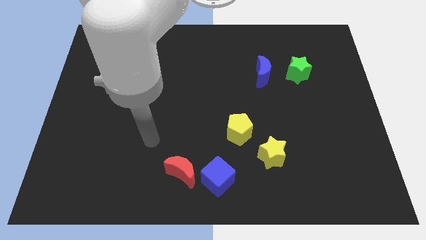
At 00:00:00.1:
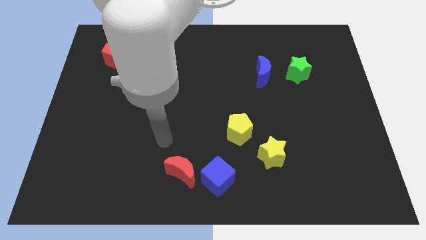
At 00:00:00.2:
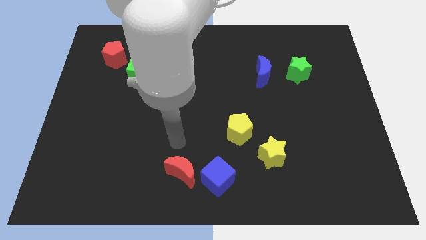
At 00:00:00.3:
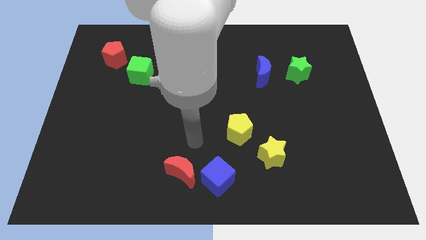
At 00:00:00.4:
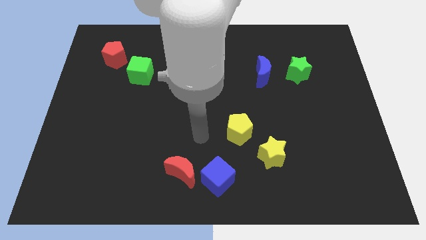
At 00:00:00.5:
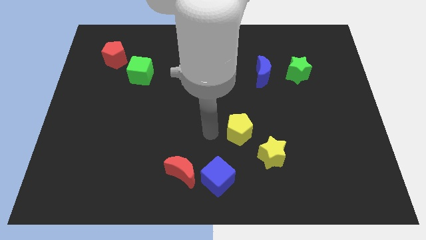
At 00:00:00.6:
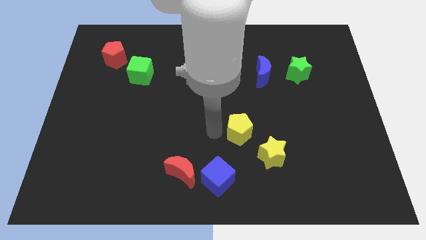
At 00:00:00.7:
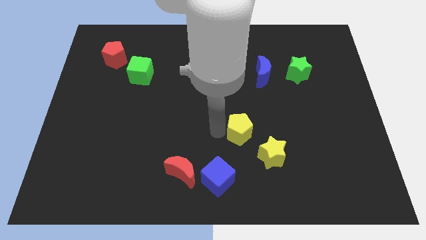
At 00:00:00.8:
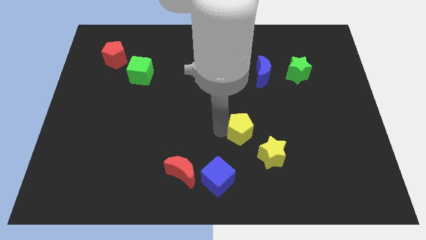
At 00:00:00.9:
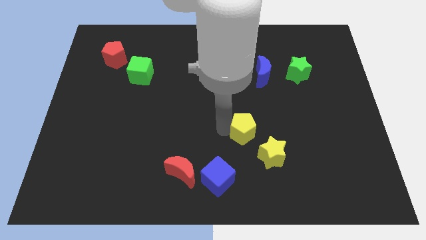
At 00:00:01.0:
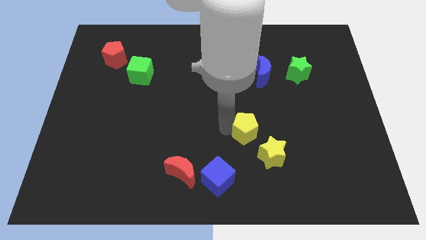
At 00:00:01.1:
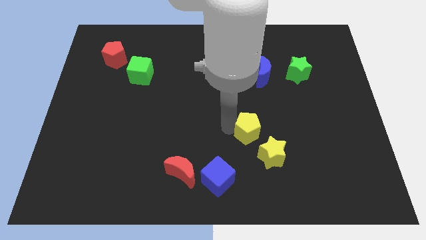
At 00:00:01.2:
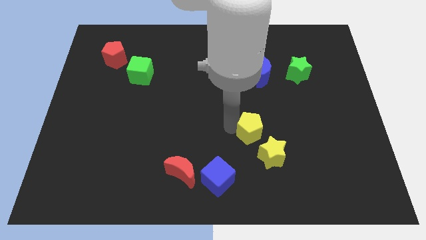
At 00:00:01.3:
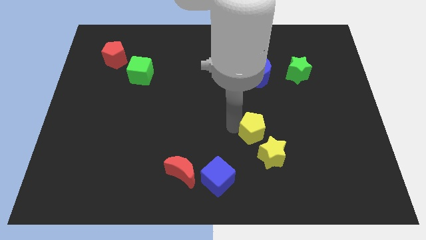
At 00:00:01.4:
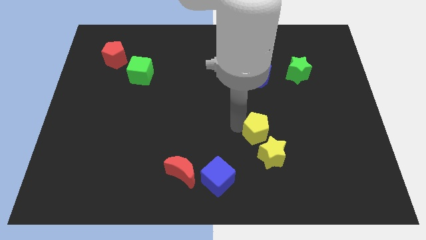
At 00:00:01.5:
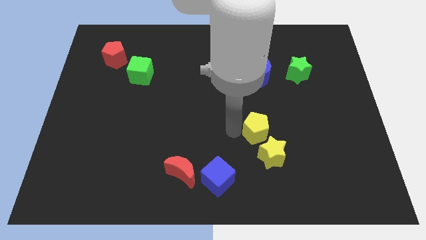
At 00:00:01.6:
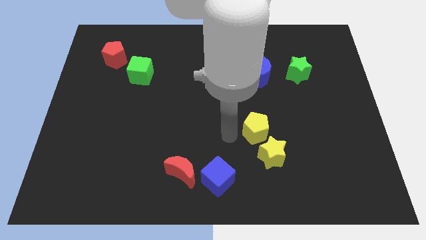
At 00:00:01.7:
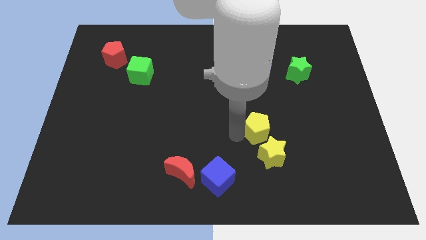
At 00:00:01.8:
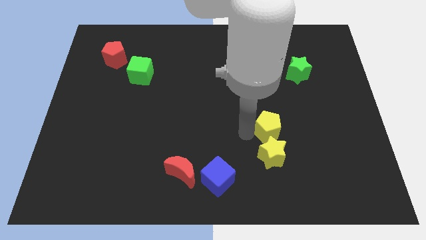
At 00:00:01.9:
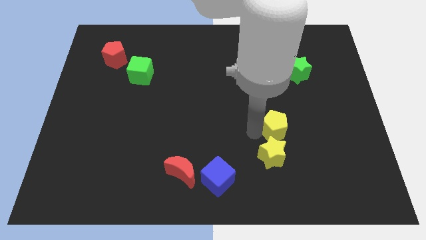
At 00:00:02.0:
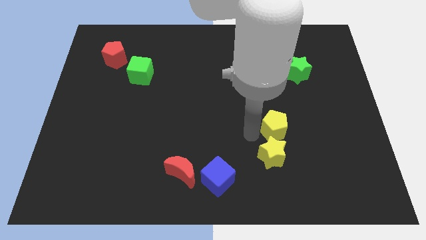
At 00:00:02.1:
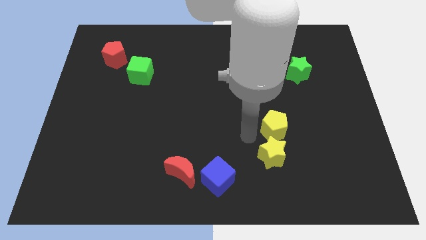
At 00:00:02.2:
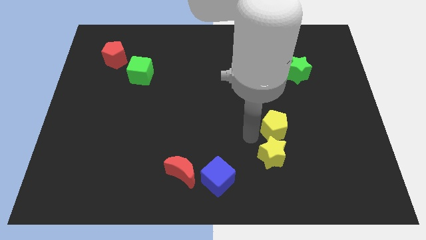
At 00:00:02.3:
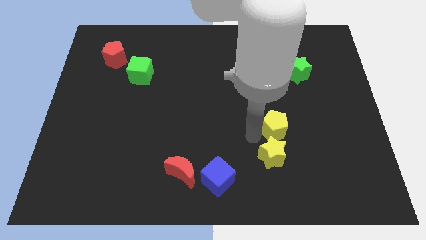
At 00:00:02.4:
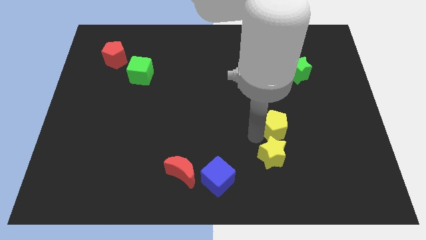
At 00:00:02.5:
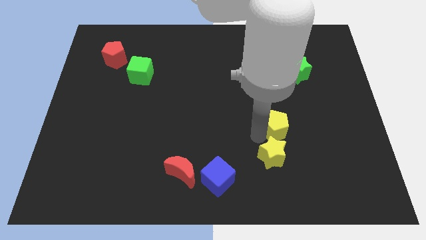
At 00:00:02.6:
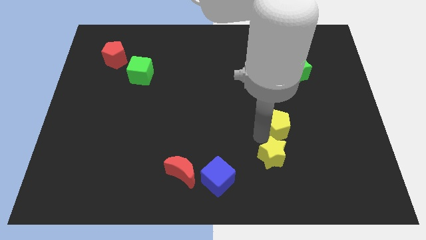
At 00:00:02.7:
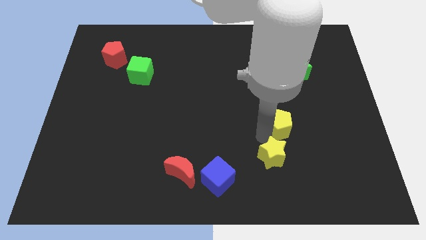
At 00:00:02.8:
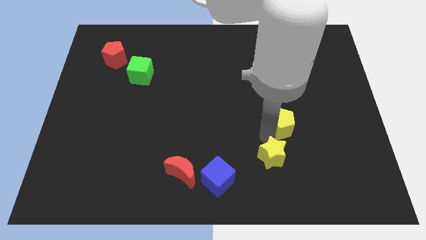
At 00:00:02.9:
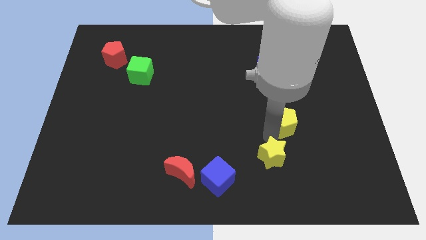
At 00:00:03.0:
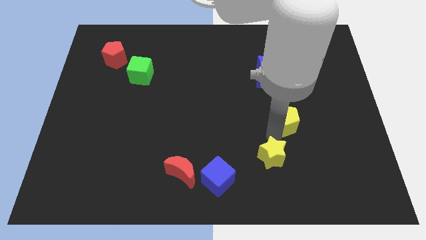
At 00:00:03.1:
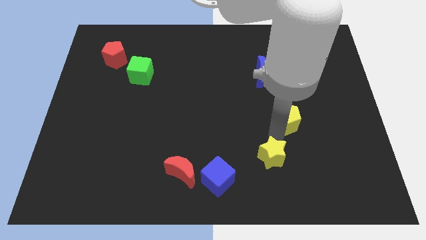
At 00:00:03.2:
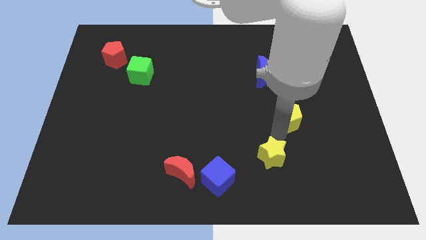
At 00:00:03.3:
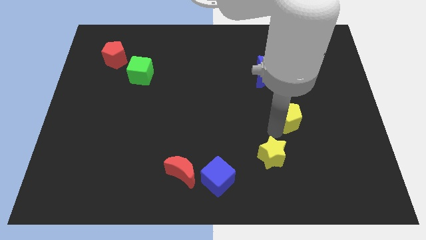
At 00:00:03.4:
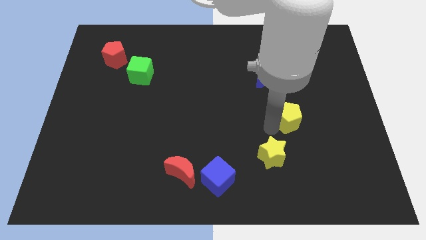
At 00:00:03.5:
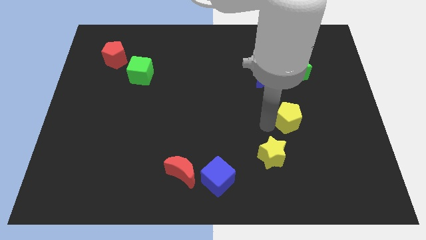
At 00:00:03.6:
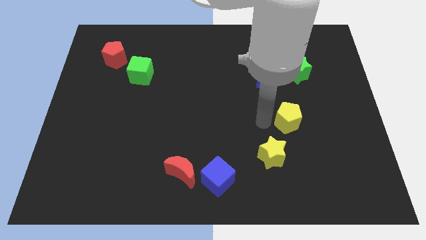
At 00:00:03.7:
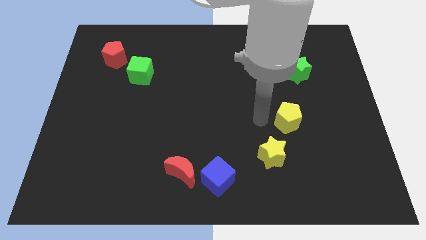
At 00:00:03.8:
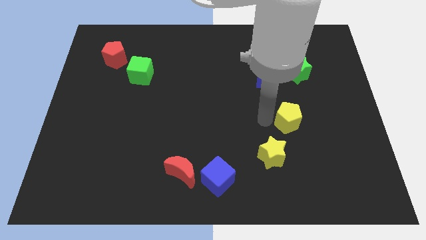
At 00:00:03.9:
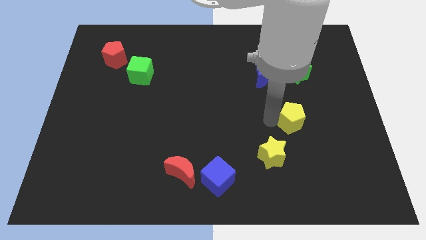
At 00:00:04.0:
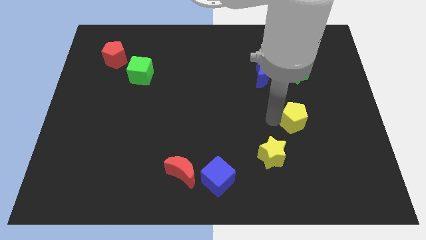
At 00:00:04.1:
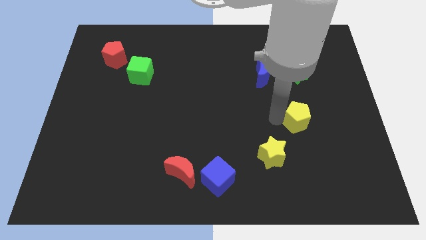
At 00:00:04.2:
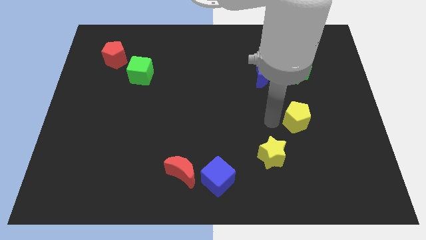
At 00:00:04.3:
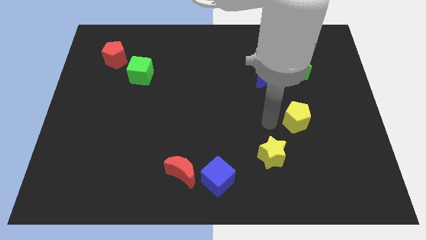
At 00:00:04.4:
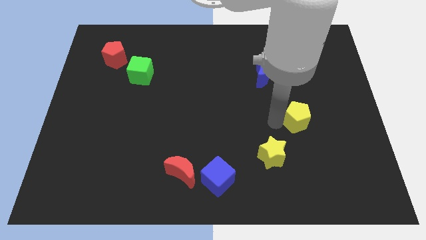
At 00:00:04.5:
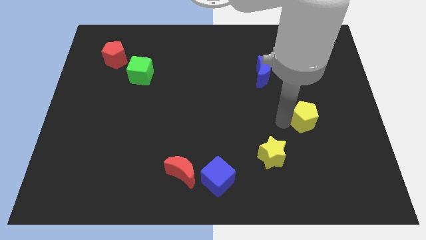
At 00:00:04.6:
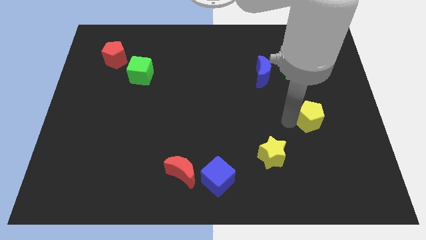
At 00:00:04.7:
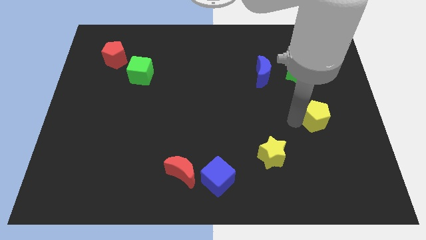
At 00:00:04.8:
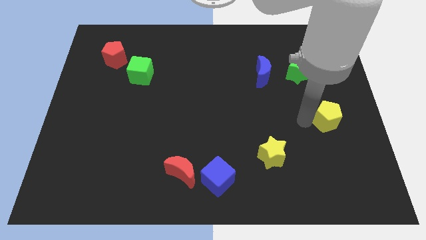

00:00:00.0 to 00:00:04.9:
move the yellow pentagon to the center right

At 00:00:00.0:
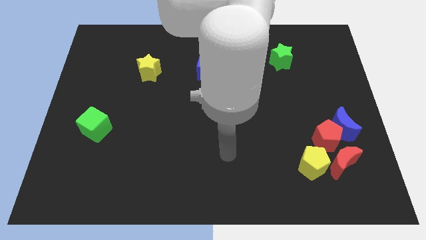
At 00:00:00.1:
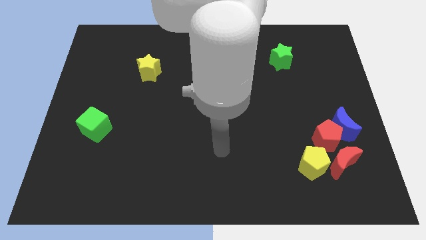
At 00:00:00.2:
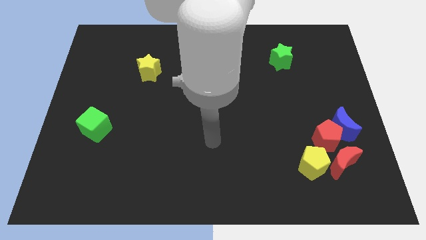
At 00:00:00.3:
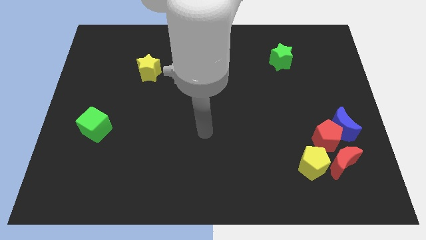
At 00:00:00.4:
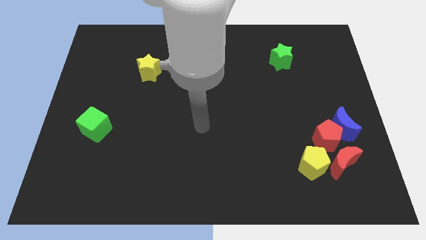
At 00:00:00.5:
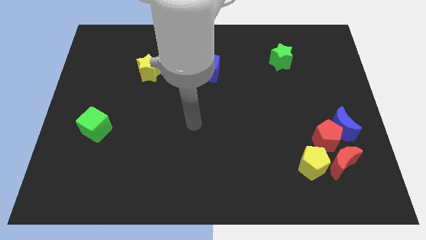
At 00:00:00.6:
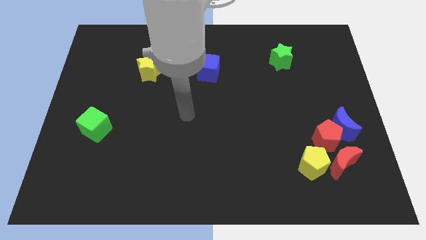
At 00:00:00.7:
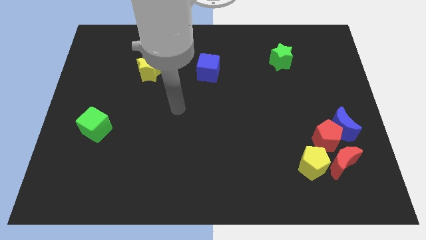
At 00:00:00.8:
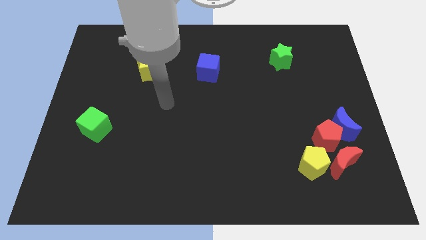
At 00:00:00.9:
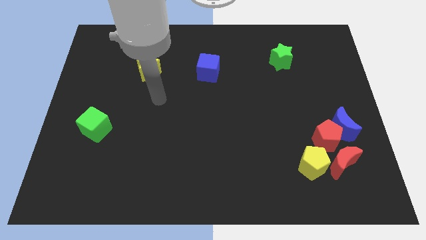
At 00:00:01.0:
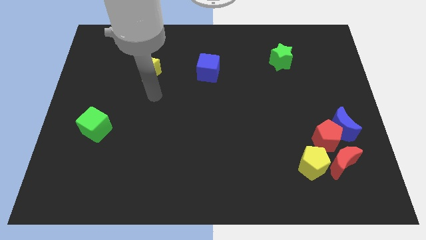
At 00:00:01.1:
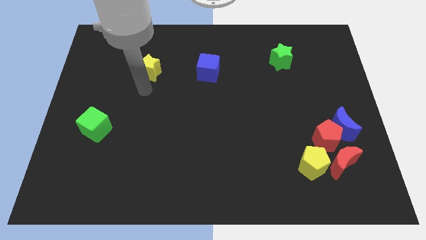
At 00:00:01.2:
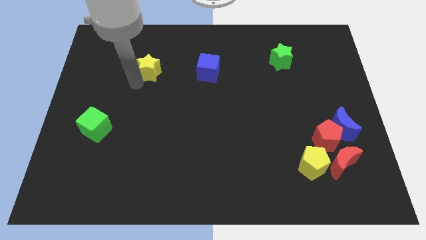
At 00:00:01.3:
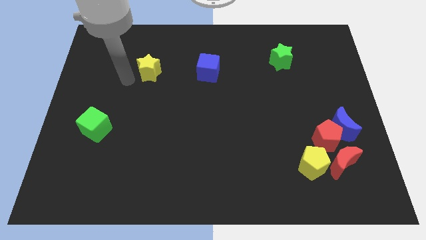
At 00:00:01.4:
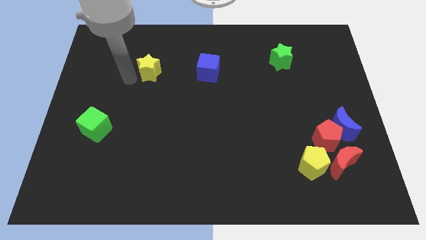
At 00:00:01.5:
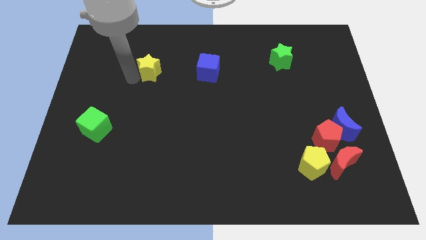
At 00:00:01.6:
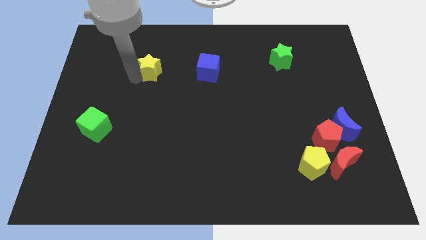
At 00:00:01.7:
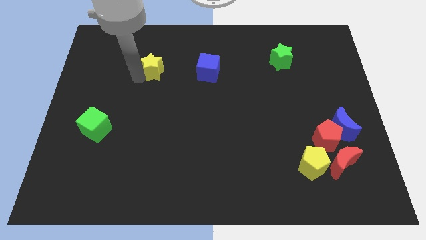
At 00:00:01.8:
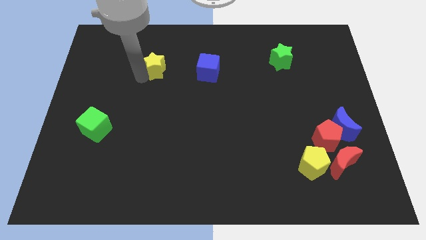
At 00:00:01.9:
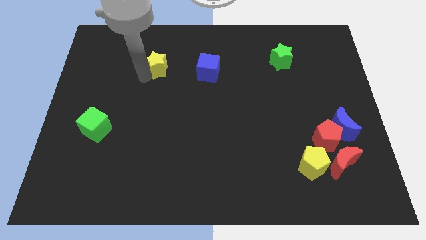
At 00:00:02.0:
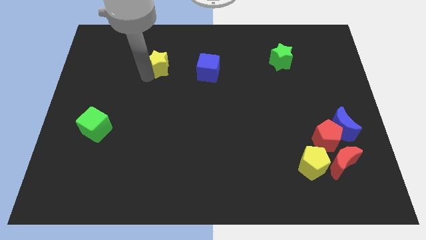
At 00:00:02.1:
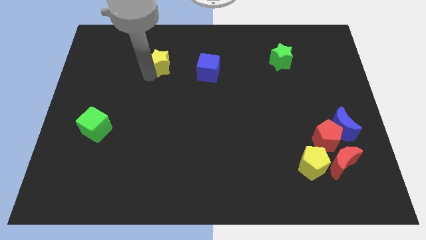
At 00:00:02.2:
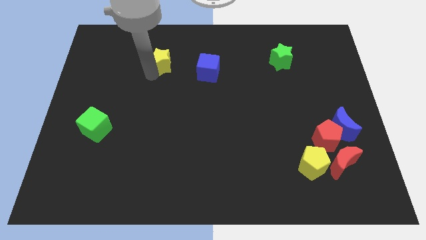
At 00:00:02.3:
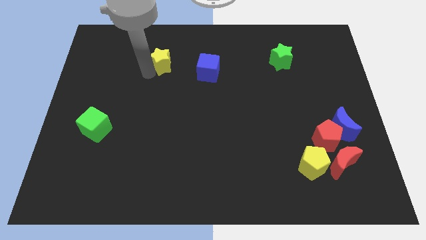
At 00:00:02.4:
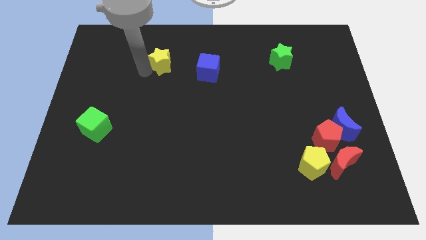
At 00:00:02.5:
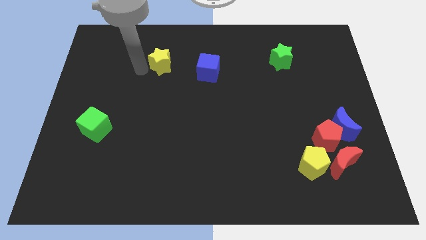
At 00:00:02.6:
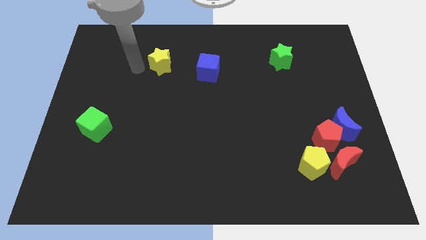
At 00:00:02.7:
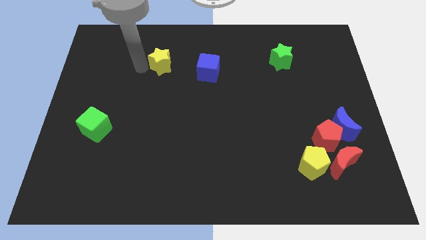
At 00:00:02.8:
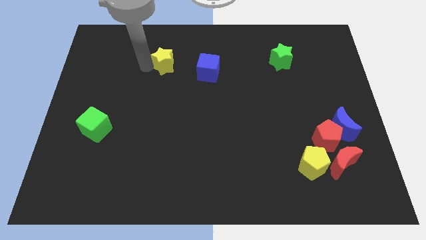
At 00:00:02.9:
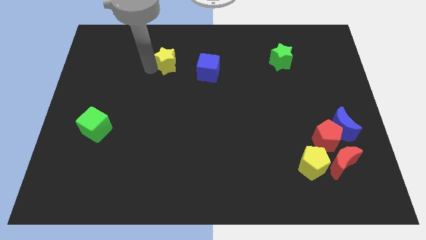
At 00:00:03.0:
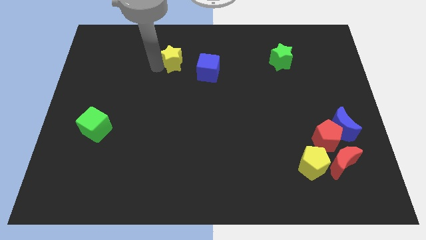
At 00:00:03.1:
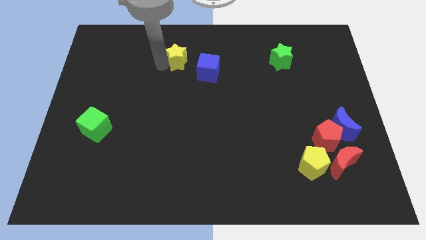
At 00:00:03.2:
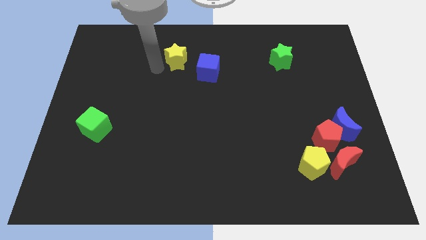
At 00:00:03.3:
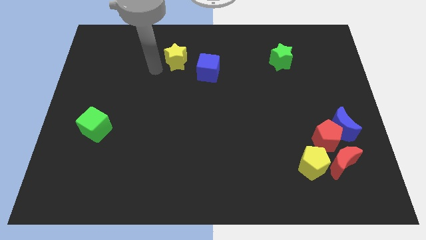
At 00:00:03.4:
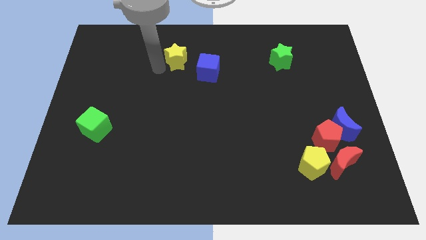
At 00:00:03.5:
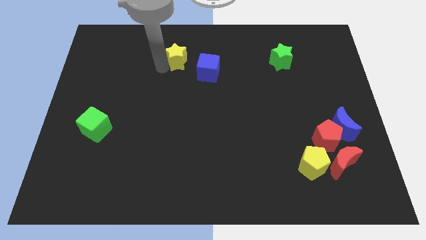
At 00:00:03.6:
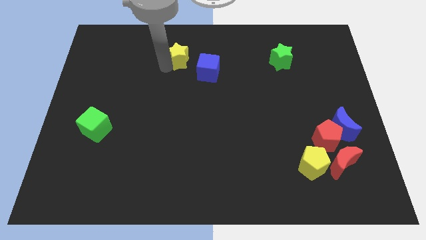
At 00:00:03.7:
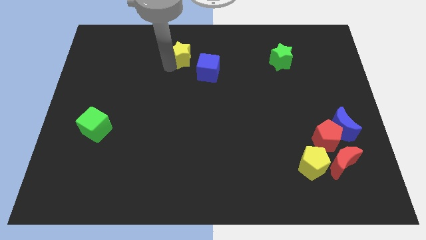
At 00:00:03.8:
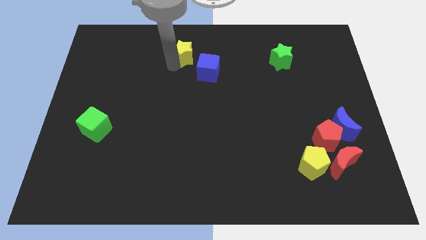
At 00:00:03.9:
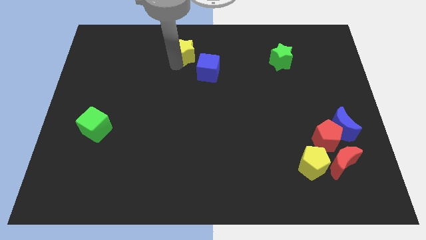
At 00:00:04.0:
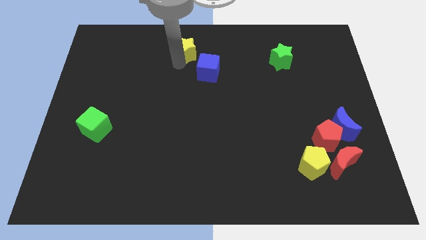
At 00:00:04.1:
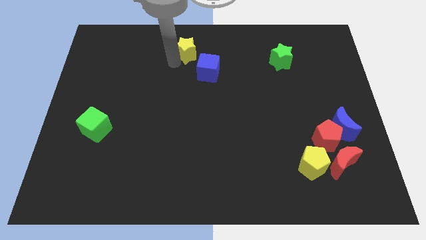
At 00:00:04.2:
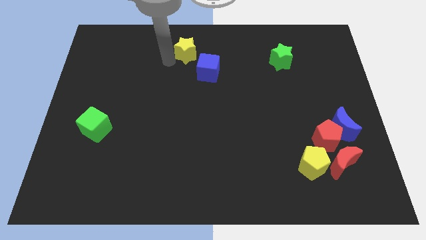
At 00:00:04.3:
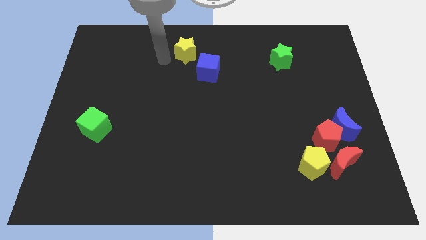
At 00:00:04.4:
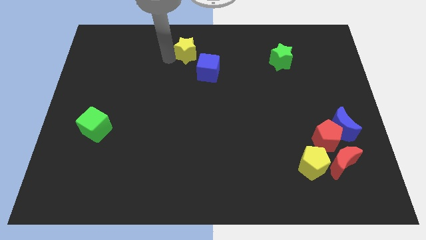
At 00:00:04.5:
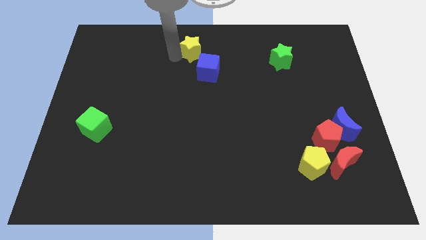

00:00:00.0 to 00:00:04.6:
put the yellow star to the towards your base
